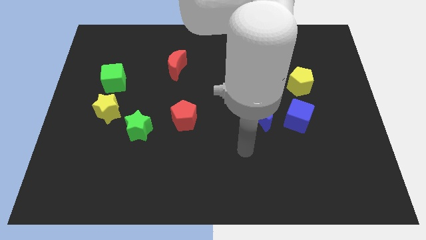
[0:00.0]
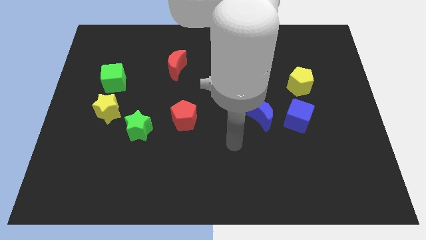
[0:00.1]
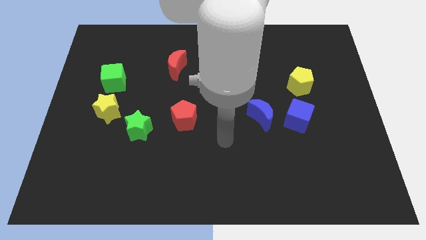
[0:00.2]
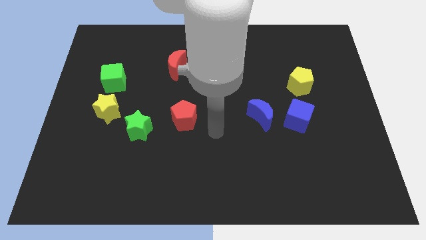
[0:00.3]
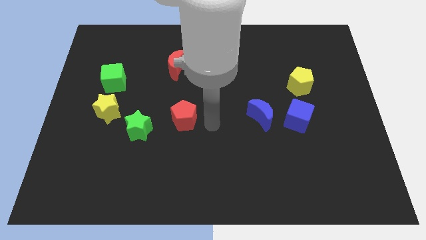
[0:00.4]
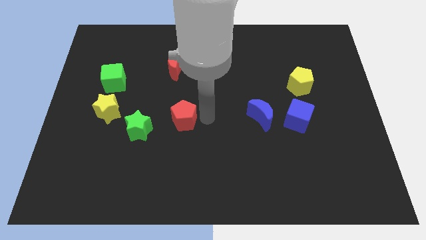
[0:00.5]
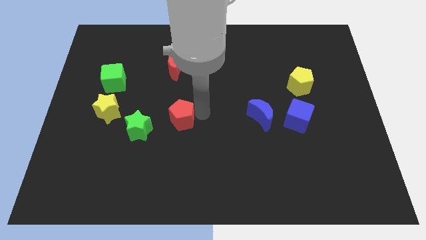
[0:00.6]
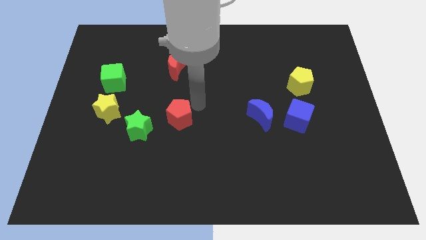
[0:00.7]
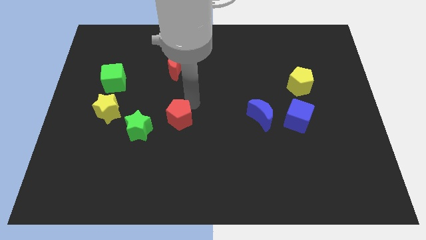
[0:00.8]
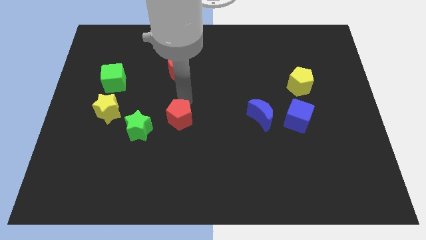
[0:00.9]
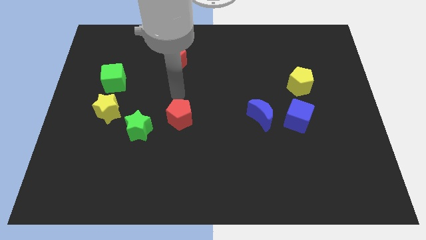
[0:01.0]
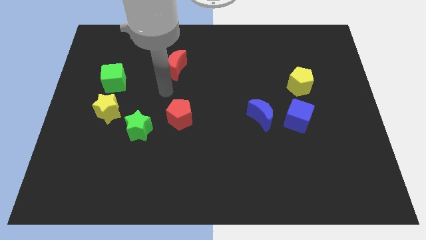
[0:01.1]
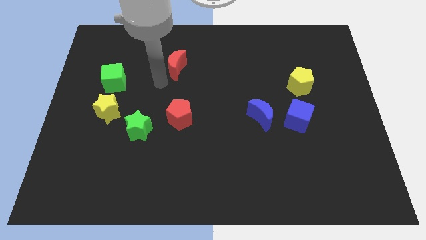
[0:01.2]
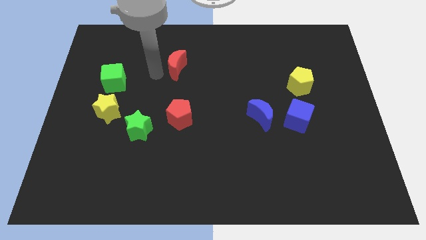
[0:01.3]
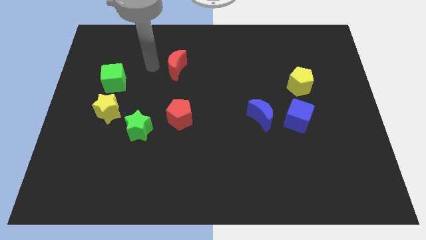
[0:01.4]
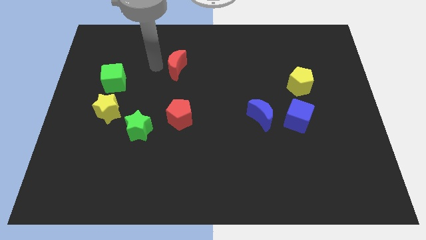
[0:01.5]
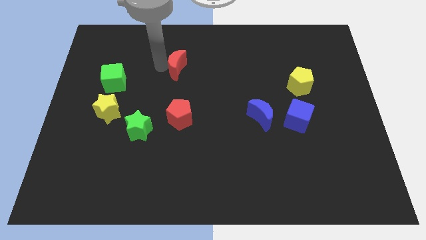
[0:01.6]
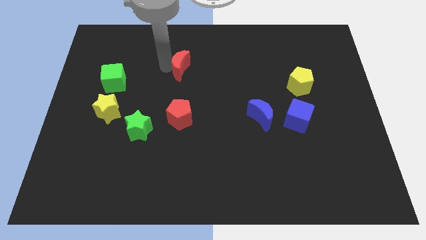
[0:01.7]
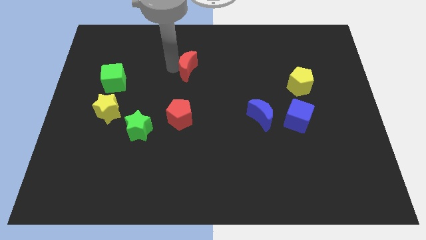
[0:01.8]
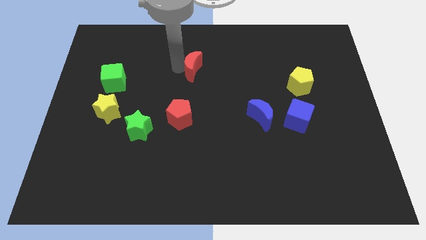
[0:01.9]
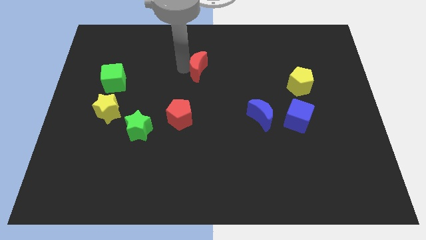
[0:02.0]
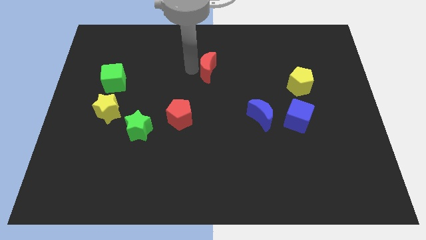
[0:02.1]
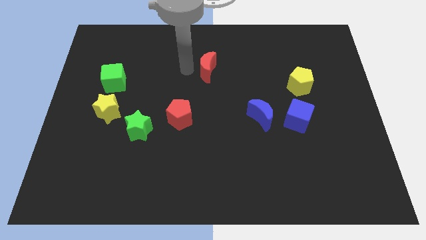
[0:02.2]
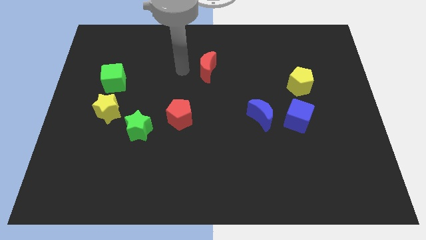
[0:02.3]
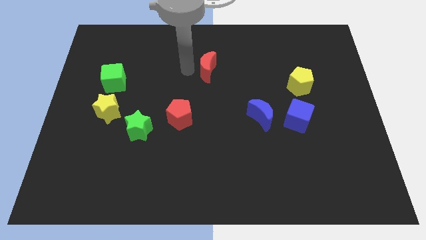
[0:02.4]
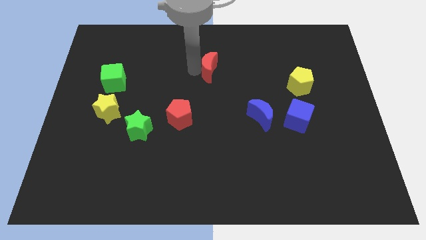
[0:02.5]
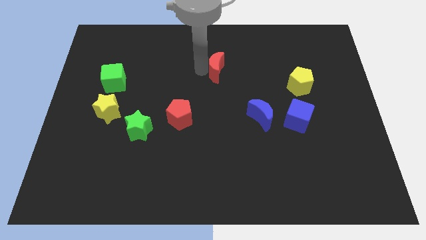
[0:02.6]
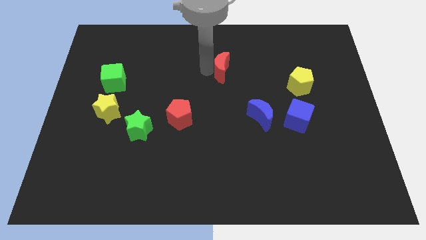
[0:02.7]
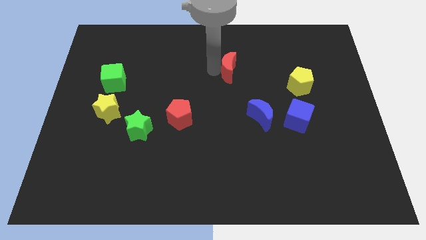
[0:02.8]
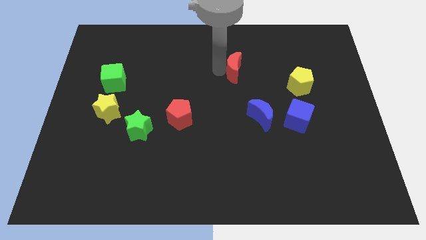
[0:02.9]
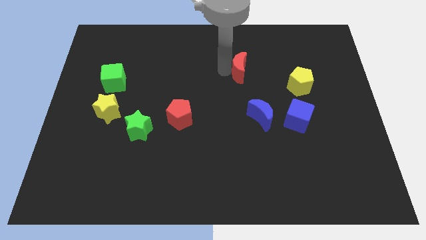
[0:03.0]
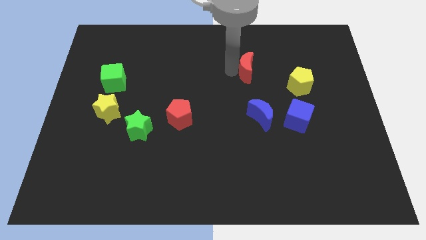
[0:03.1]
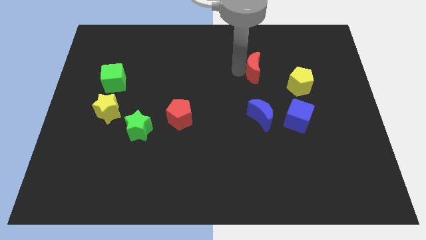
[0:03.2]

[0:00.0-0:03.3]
push the red moon right

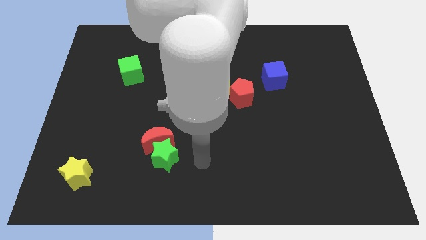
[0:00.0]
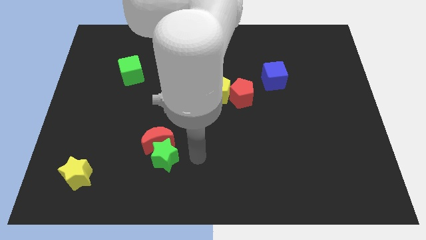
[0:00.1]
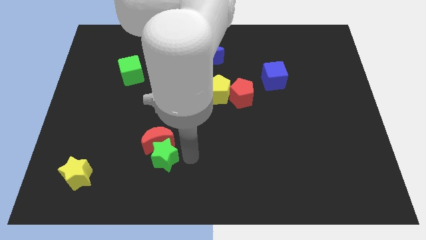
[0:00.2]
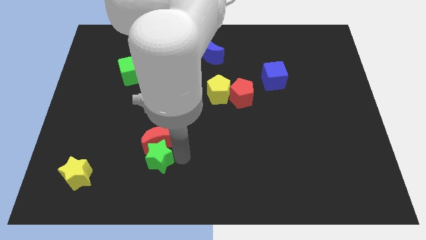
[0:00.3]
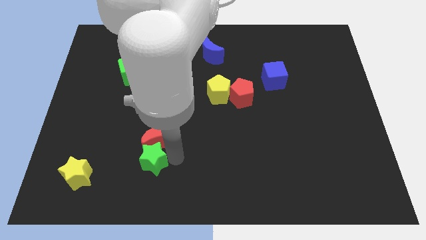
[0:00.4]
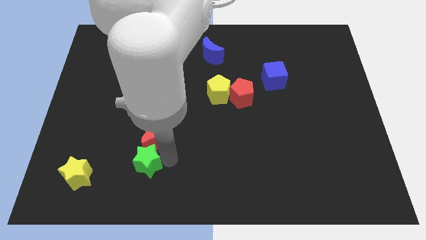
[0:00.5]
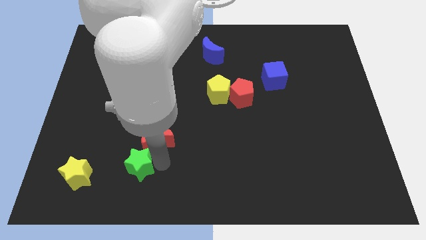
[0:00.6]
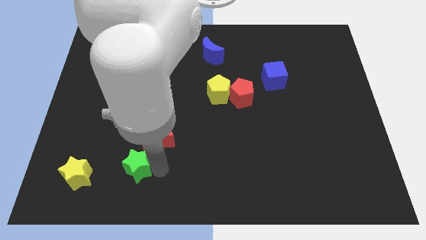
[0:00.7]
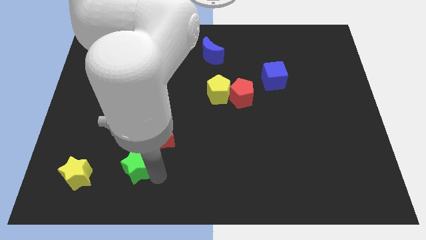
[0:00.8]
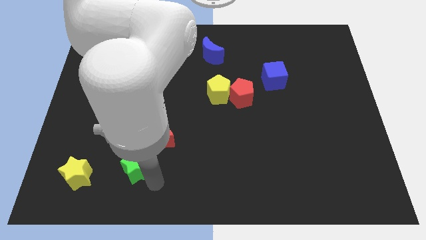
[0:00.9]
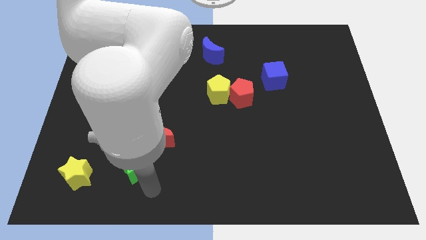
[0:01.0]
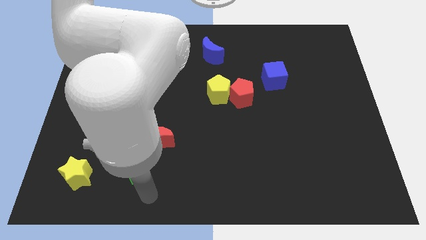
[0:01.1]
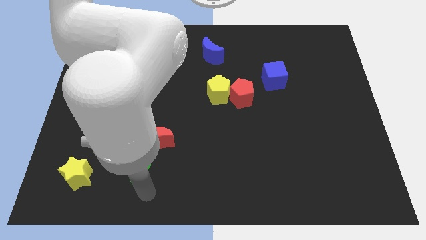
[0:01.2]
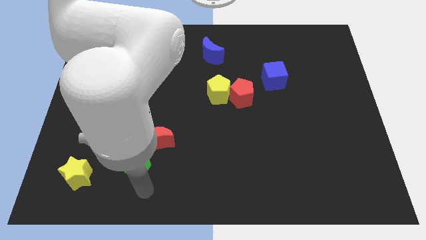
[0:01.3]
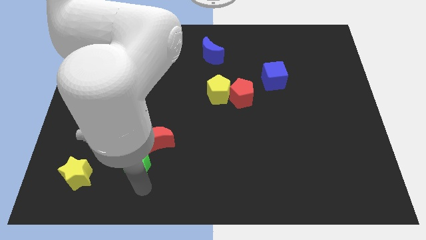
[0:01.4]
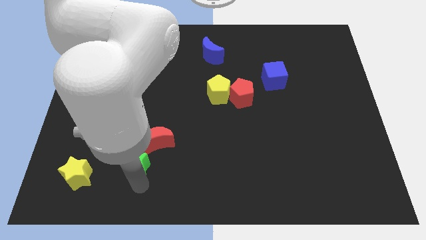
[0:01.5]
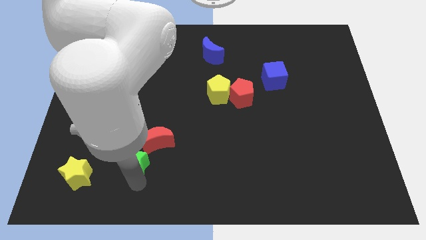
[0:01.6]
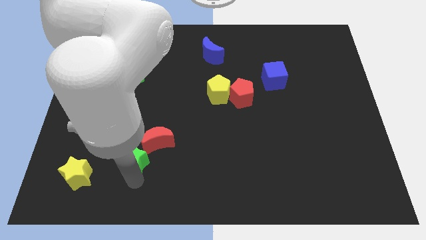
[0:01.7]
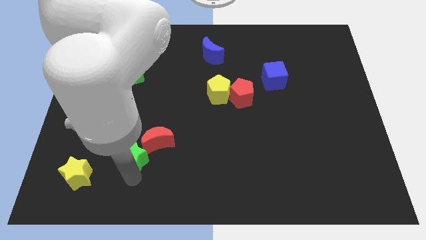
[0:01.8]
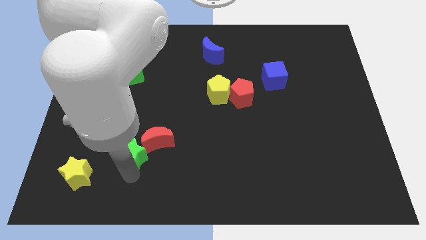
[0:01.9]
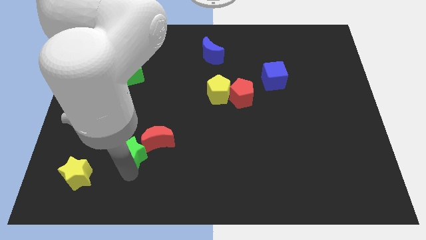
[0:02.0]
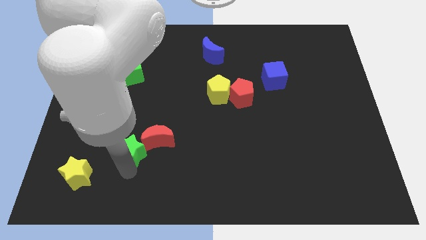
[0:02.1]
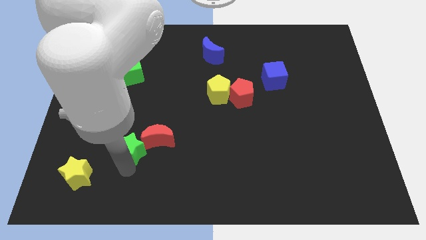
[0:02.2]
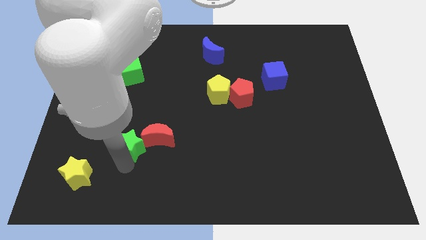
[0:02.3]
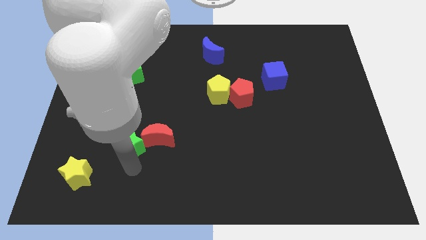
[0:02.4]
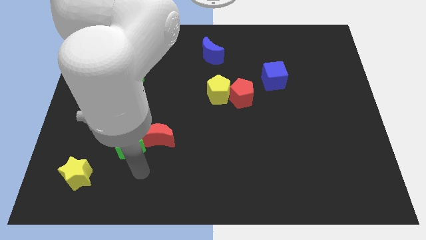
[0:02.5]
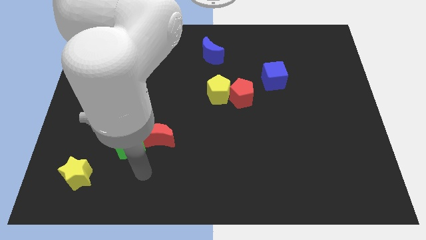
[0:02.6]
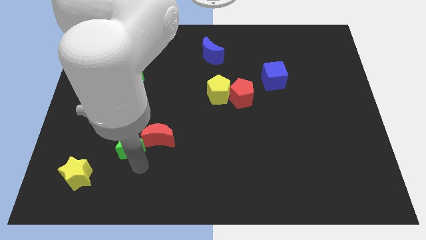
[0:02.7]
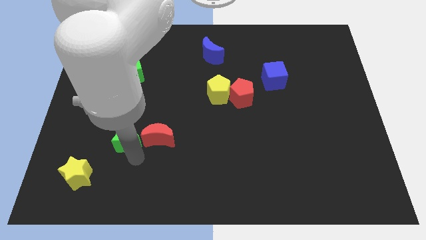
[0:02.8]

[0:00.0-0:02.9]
move the green star somewhat up and left

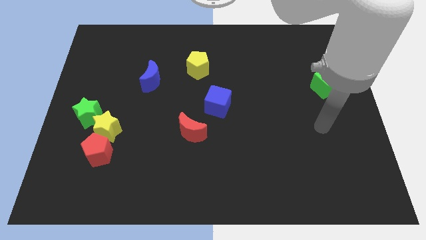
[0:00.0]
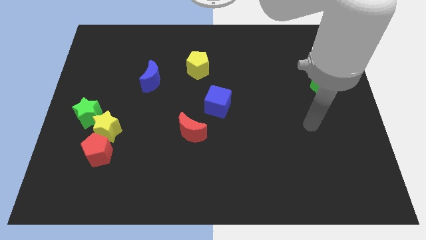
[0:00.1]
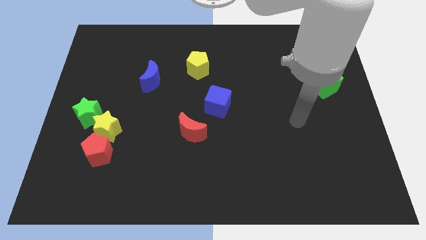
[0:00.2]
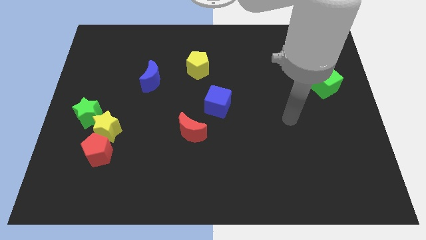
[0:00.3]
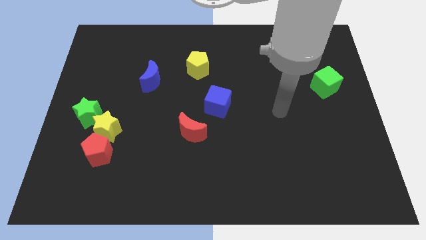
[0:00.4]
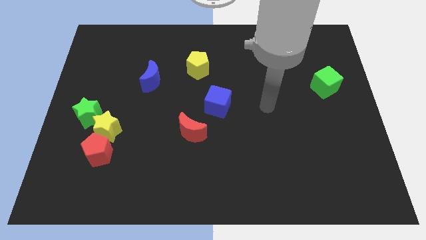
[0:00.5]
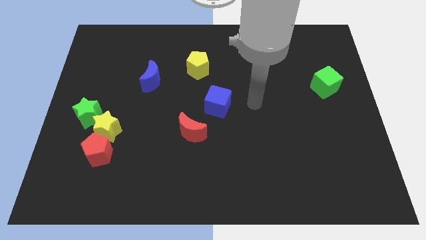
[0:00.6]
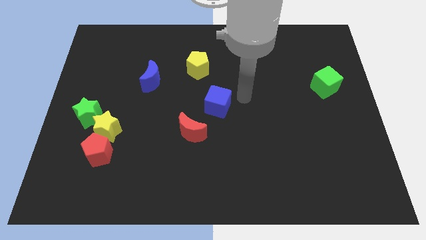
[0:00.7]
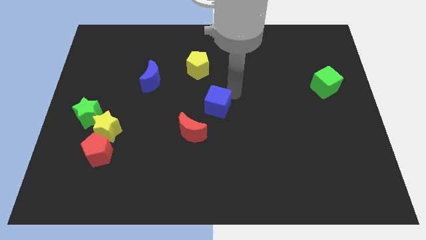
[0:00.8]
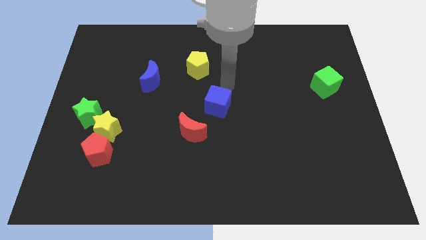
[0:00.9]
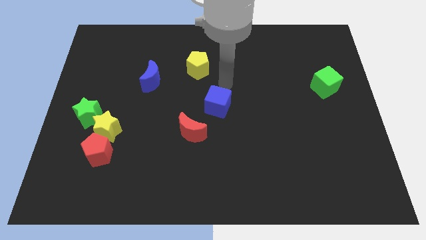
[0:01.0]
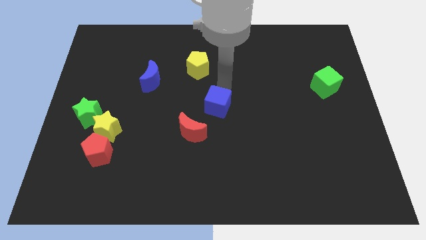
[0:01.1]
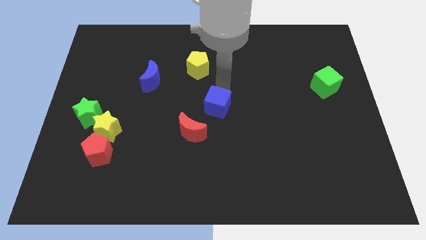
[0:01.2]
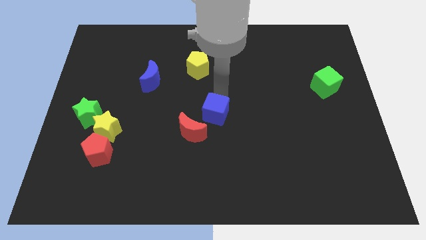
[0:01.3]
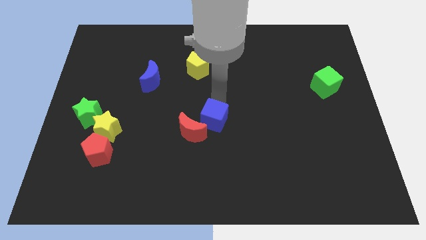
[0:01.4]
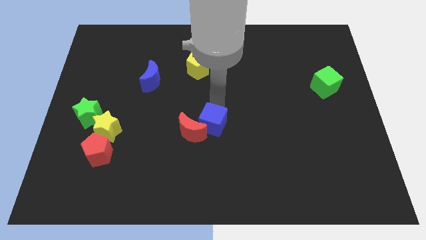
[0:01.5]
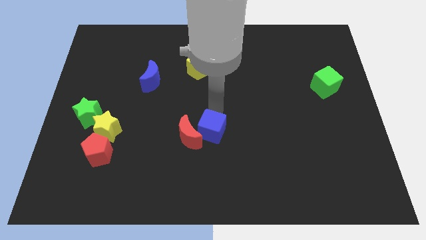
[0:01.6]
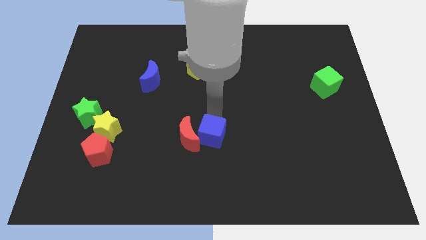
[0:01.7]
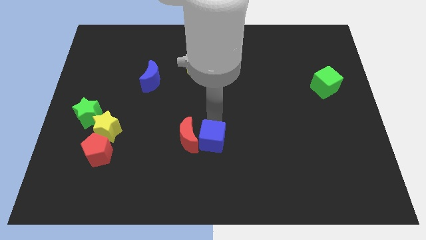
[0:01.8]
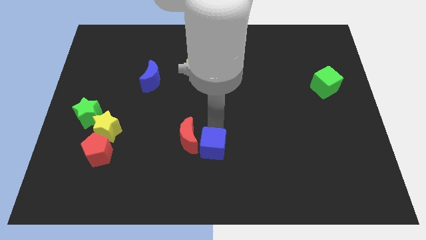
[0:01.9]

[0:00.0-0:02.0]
push the blue cube a little downwards and then to the left
